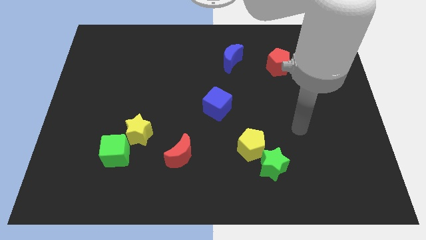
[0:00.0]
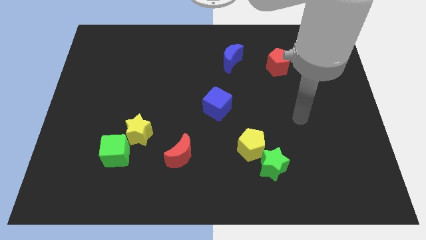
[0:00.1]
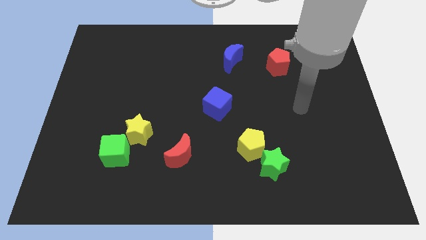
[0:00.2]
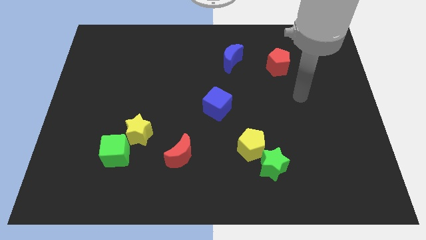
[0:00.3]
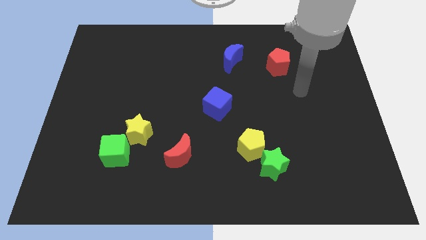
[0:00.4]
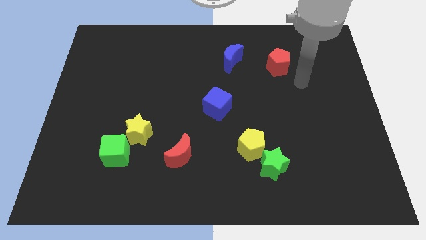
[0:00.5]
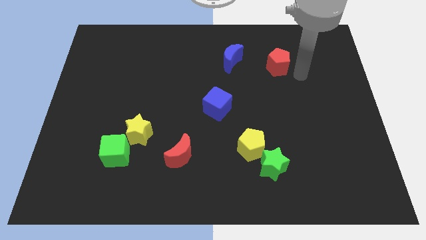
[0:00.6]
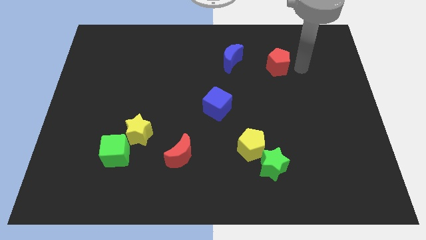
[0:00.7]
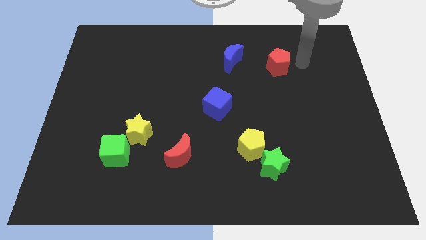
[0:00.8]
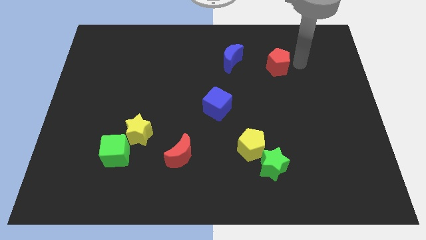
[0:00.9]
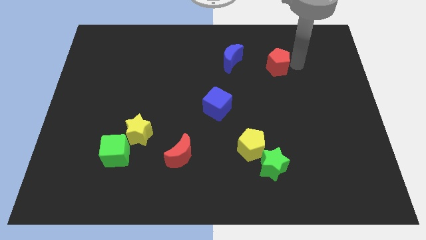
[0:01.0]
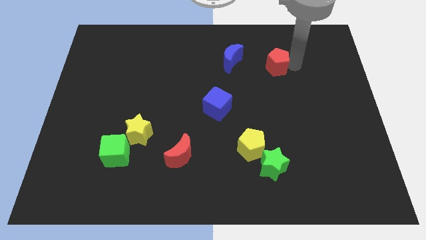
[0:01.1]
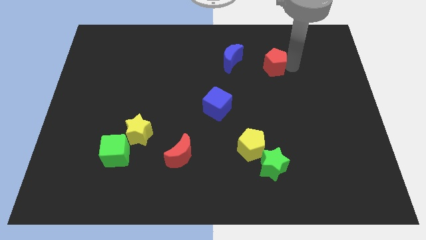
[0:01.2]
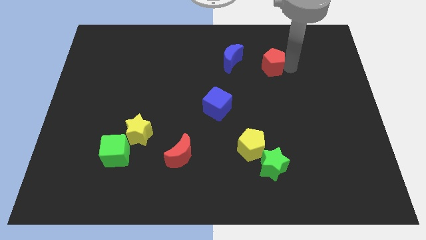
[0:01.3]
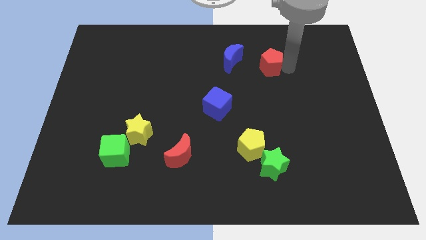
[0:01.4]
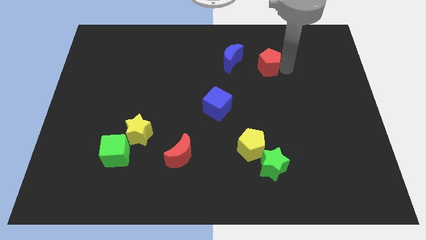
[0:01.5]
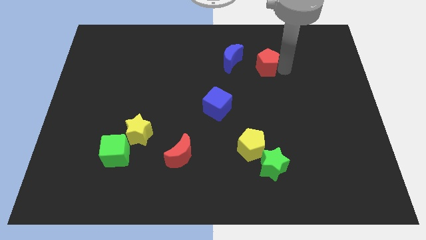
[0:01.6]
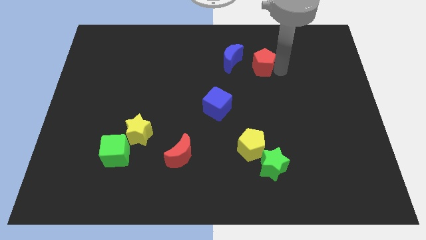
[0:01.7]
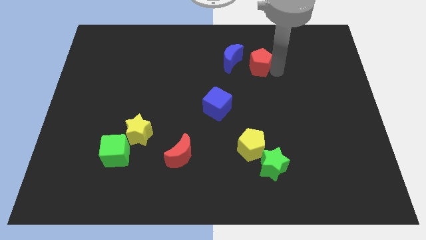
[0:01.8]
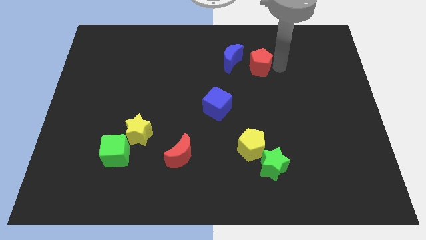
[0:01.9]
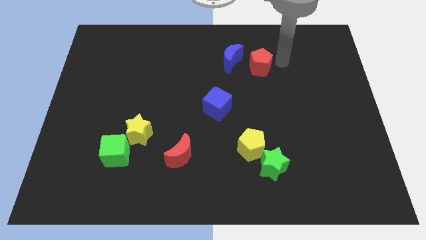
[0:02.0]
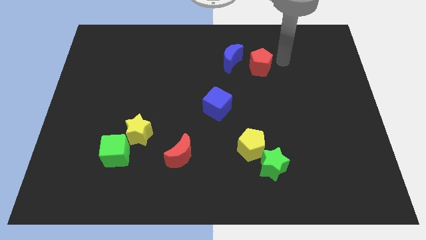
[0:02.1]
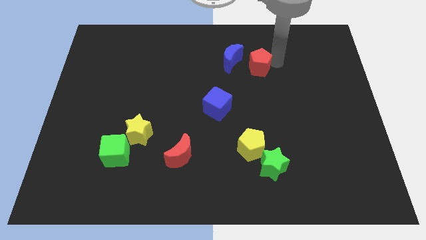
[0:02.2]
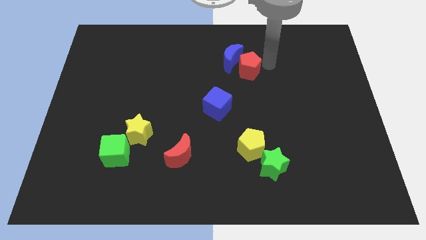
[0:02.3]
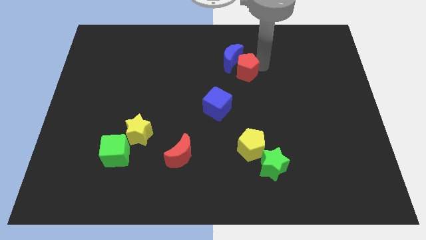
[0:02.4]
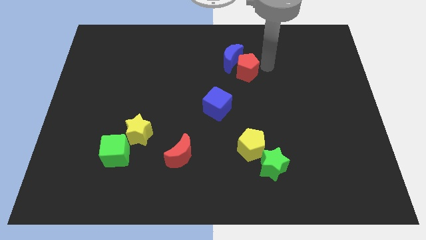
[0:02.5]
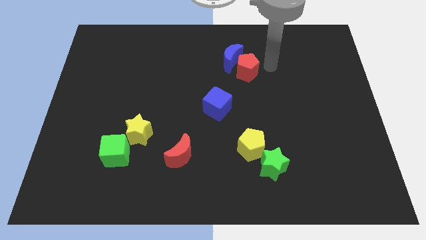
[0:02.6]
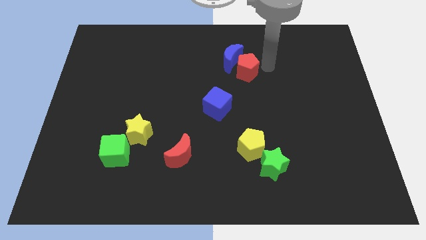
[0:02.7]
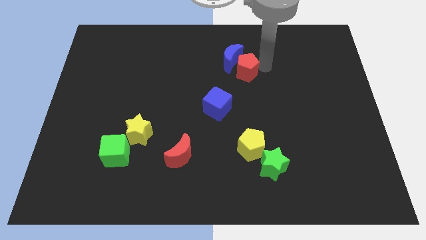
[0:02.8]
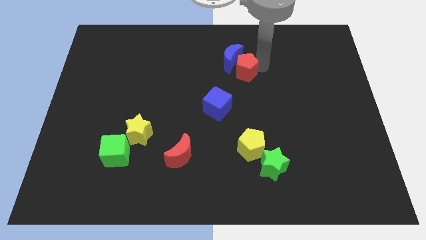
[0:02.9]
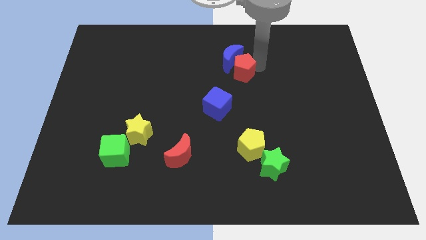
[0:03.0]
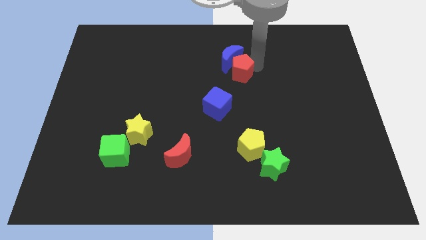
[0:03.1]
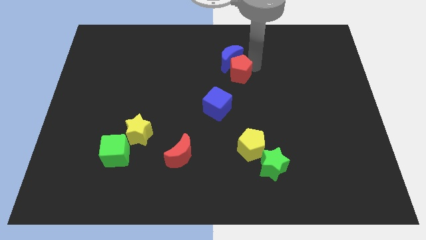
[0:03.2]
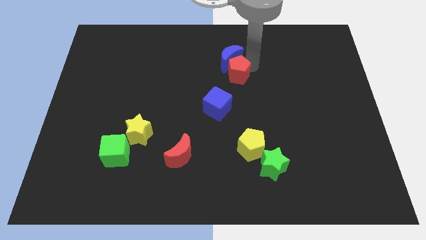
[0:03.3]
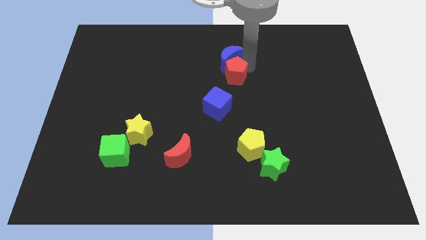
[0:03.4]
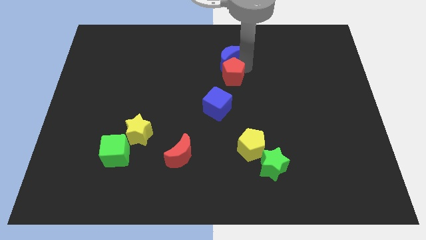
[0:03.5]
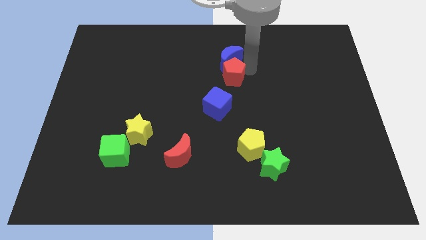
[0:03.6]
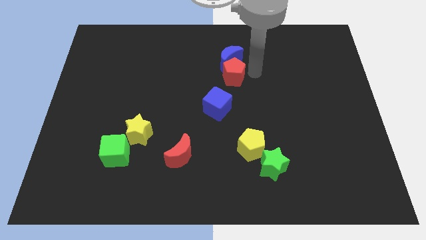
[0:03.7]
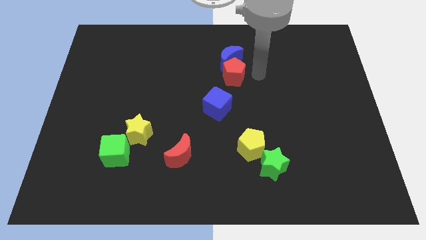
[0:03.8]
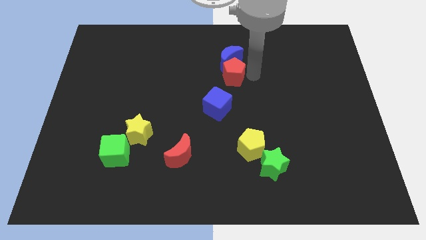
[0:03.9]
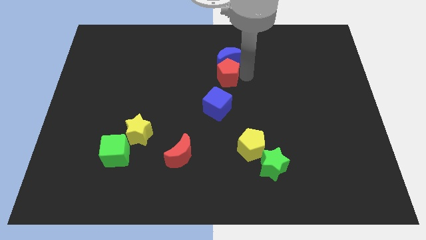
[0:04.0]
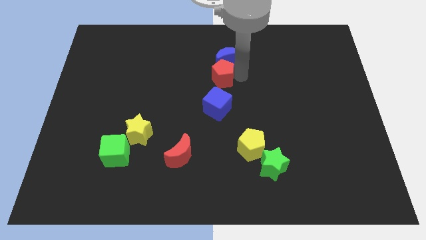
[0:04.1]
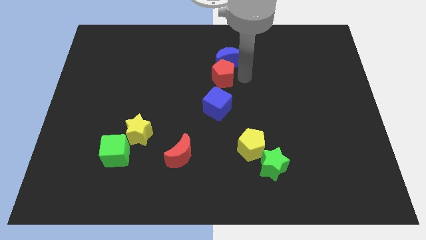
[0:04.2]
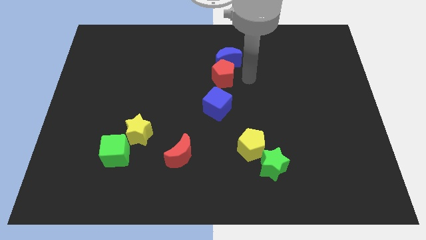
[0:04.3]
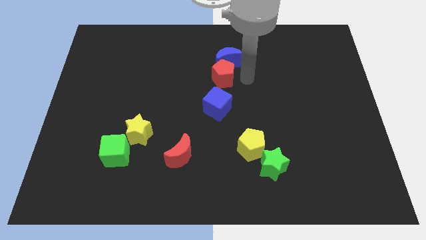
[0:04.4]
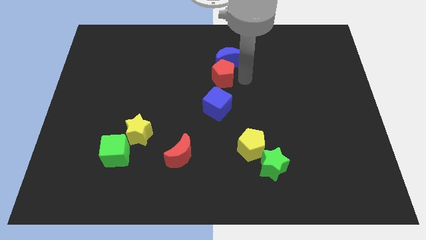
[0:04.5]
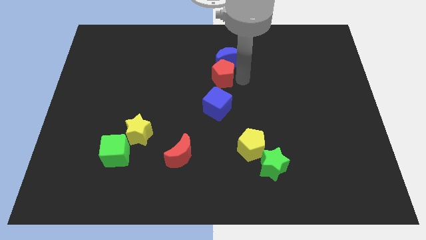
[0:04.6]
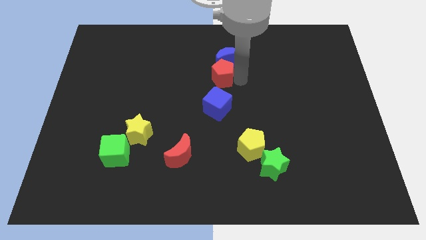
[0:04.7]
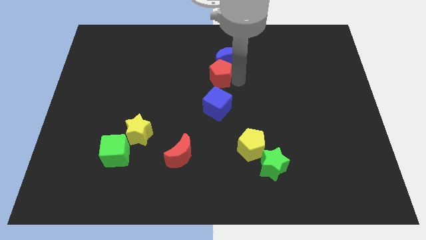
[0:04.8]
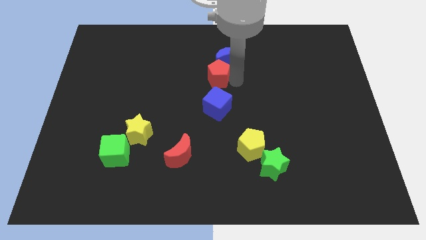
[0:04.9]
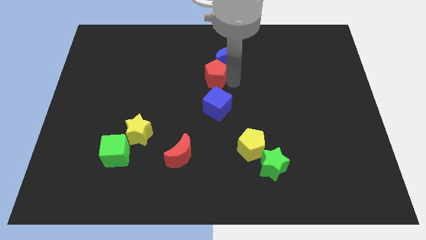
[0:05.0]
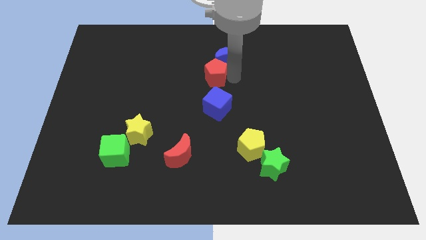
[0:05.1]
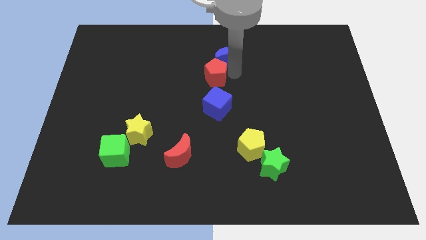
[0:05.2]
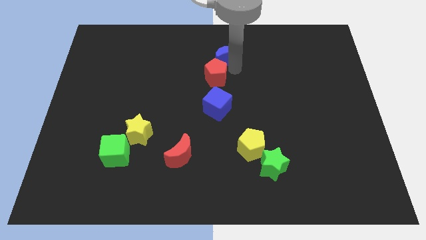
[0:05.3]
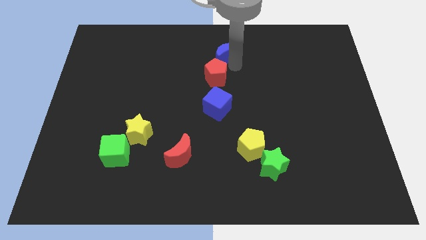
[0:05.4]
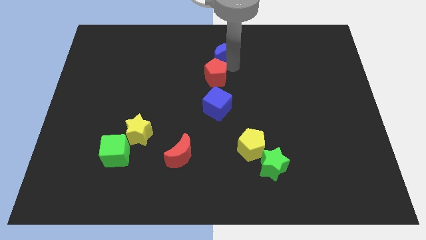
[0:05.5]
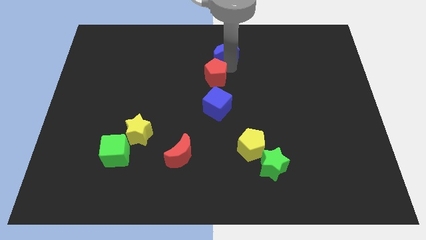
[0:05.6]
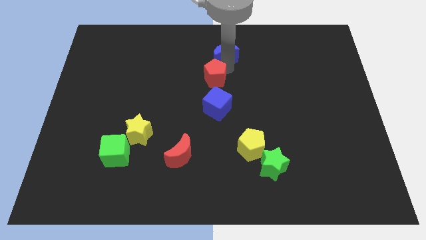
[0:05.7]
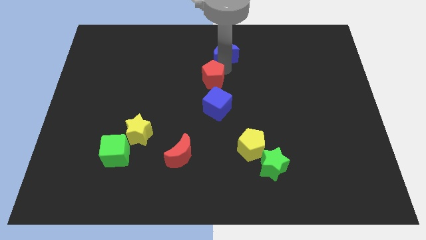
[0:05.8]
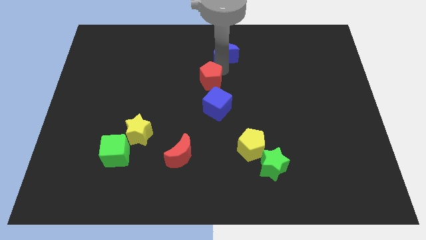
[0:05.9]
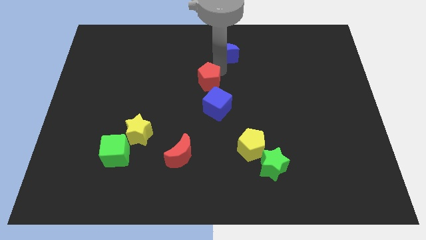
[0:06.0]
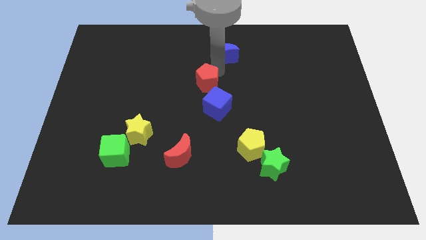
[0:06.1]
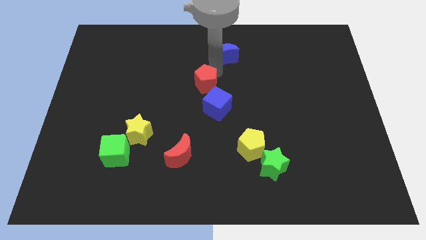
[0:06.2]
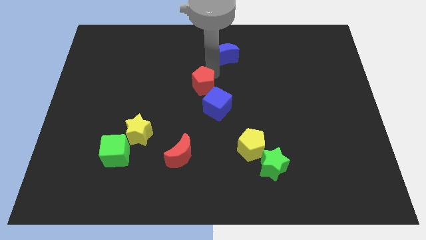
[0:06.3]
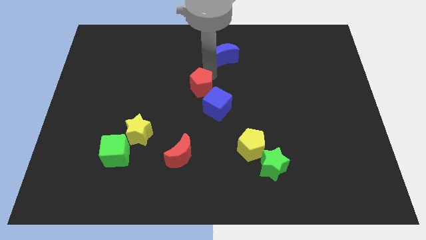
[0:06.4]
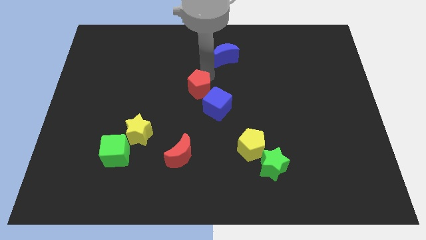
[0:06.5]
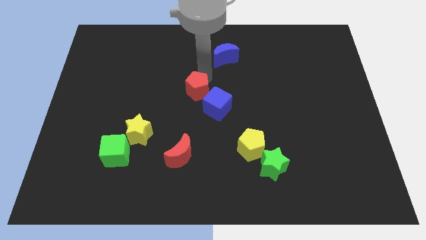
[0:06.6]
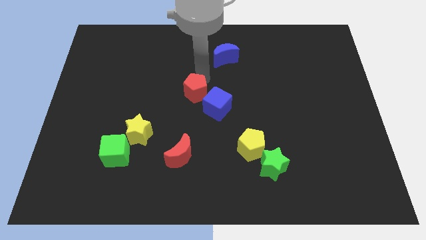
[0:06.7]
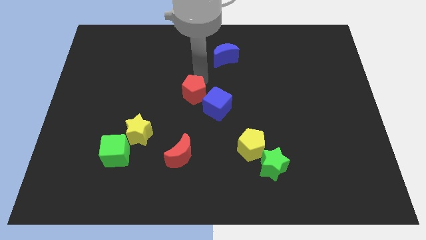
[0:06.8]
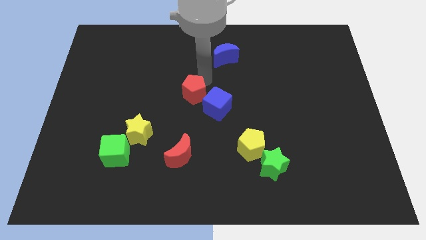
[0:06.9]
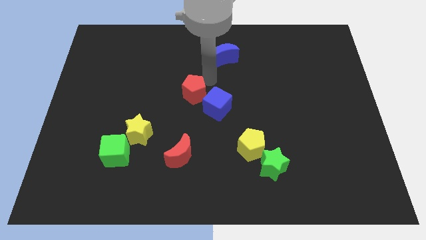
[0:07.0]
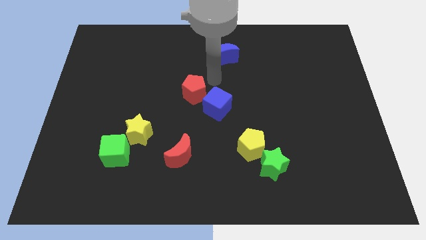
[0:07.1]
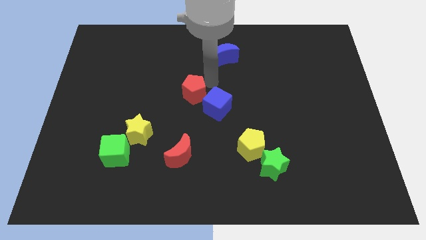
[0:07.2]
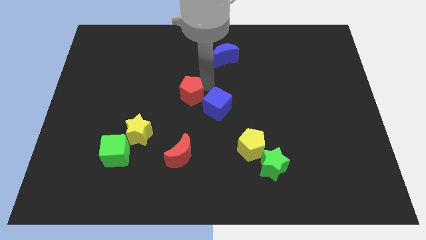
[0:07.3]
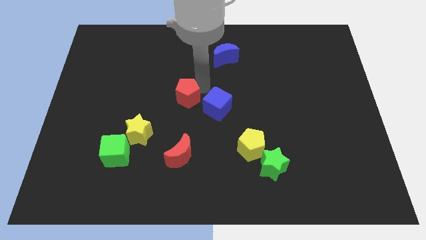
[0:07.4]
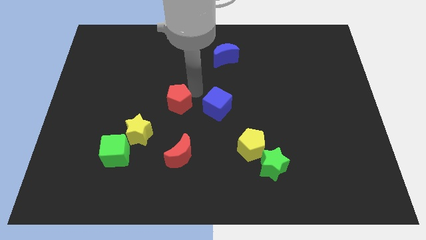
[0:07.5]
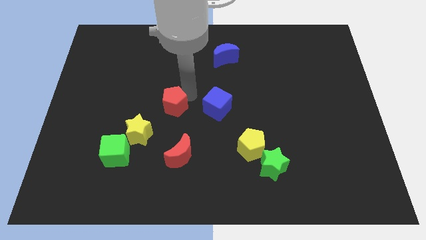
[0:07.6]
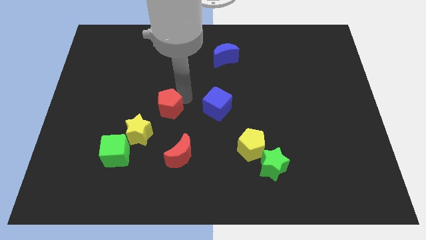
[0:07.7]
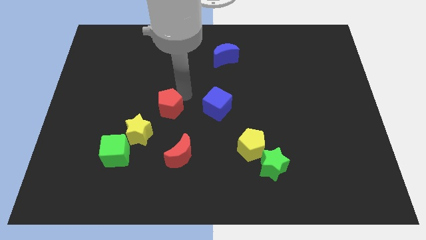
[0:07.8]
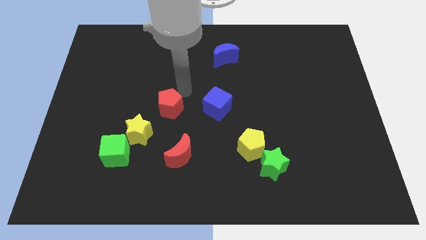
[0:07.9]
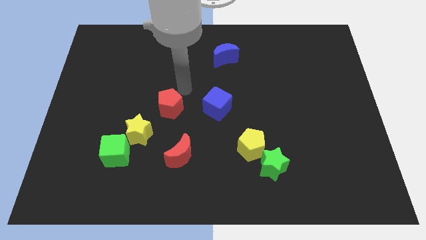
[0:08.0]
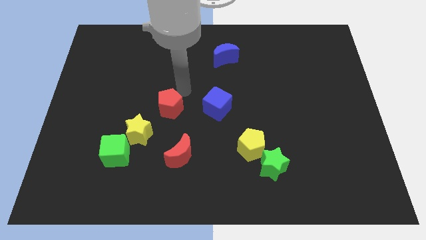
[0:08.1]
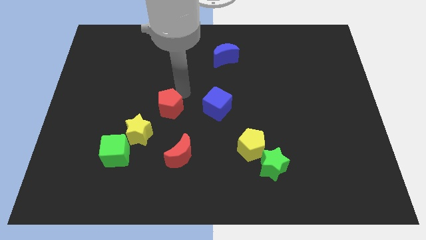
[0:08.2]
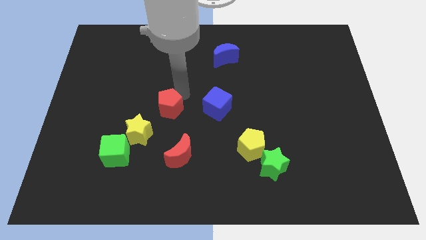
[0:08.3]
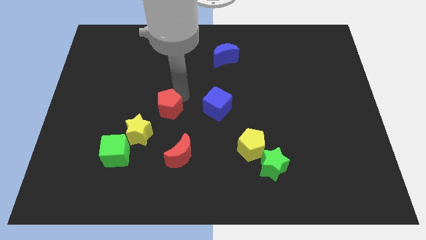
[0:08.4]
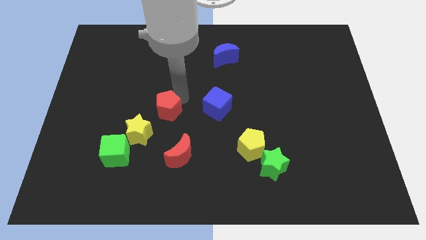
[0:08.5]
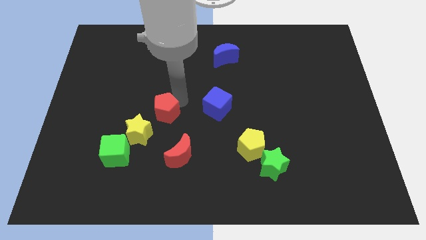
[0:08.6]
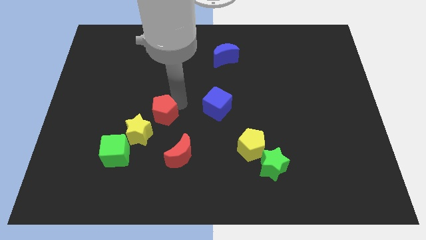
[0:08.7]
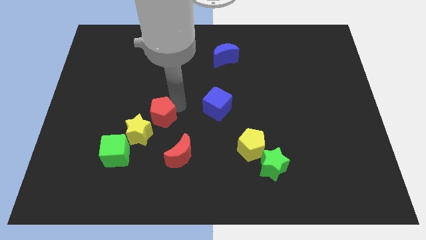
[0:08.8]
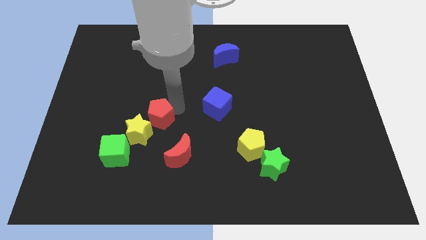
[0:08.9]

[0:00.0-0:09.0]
put the red pentagon to the top right of the green cube
